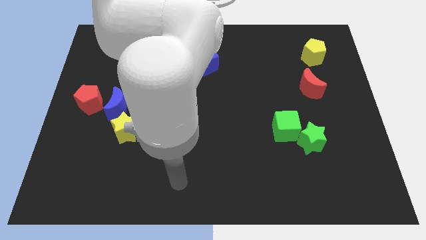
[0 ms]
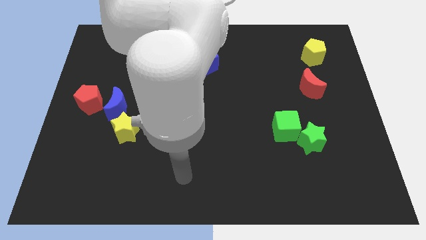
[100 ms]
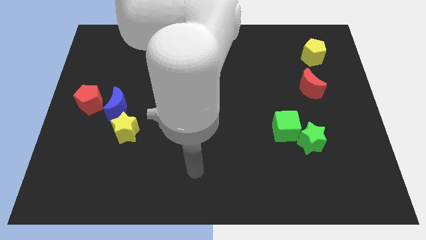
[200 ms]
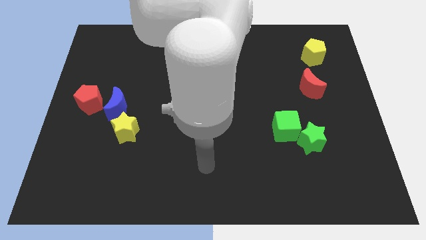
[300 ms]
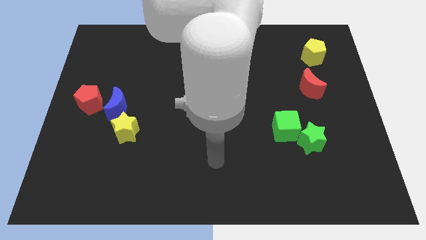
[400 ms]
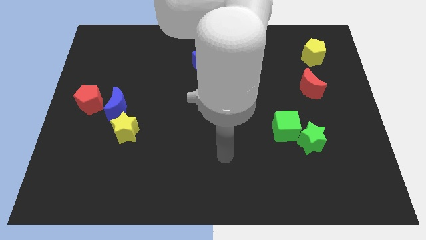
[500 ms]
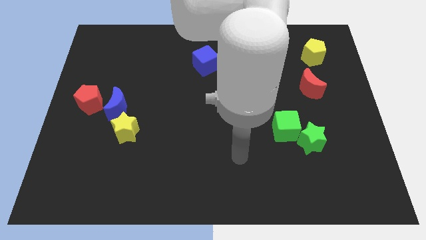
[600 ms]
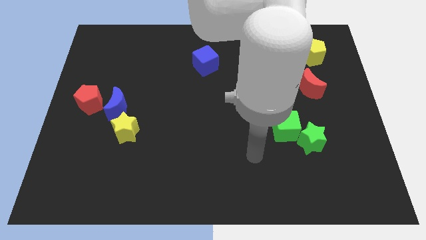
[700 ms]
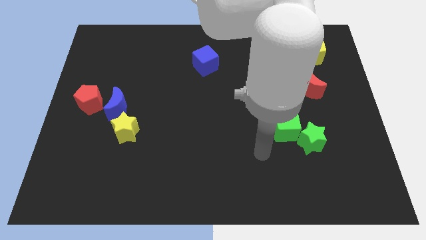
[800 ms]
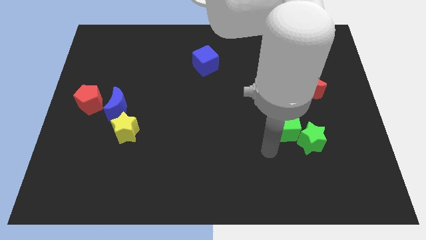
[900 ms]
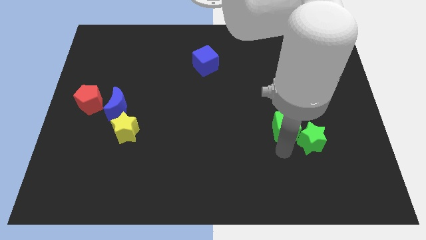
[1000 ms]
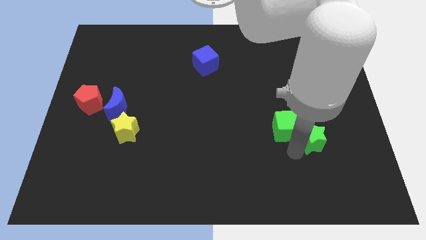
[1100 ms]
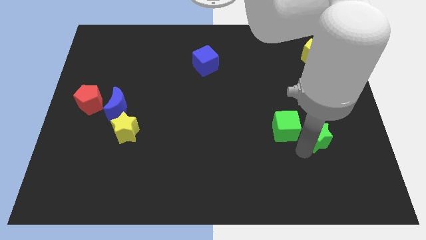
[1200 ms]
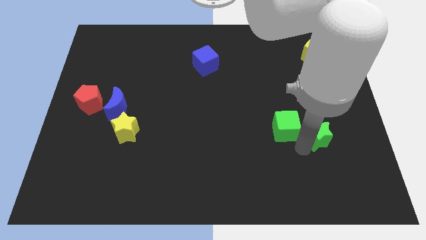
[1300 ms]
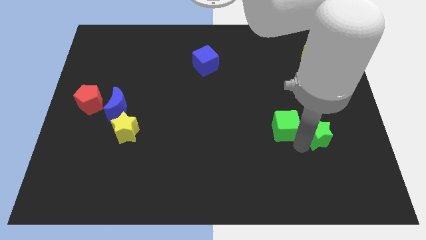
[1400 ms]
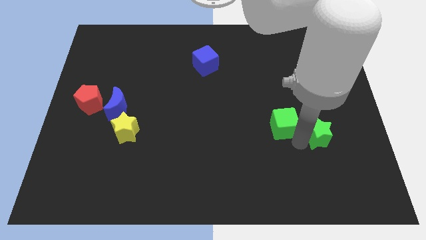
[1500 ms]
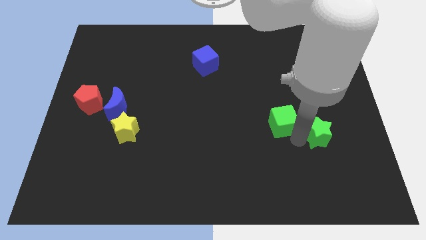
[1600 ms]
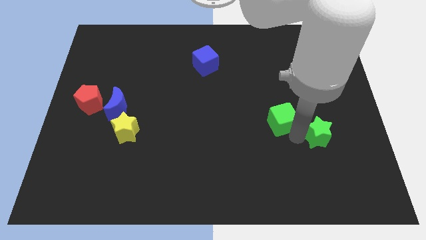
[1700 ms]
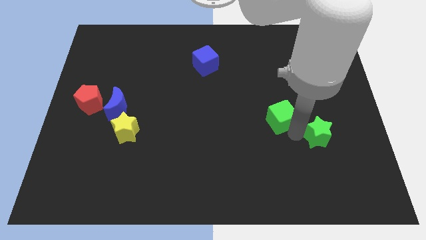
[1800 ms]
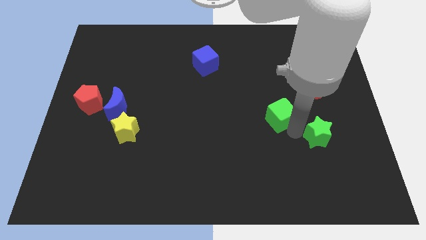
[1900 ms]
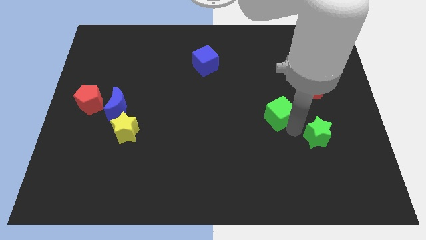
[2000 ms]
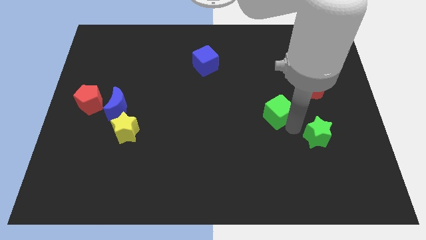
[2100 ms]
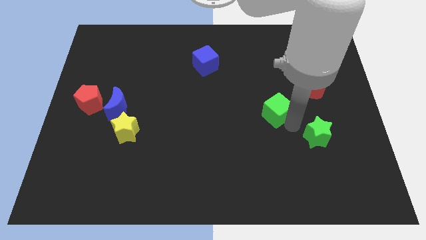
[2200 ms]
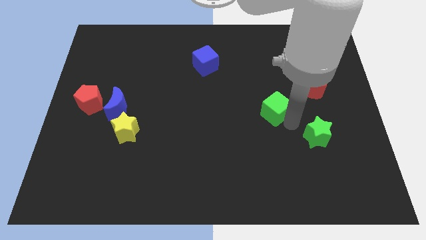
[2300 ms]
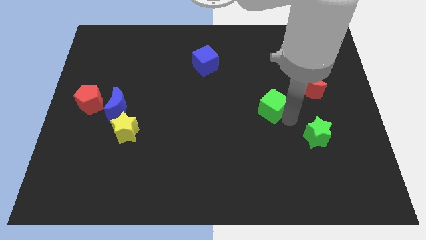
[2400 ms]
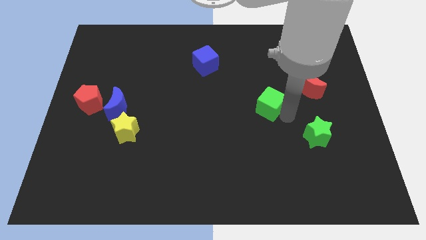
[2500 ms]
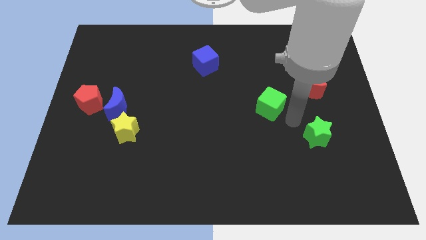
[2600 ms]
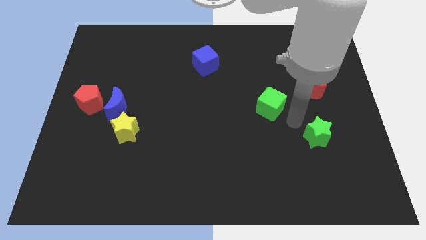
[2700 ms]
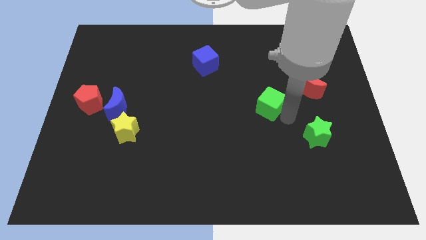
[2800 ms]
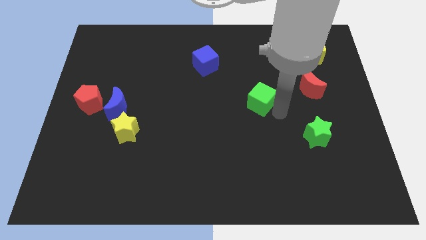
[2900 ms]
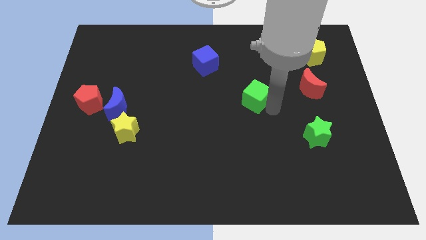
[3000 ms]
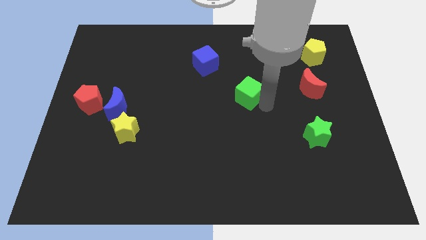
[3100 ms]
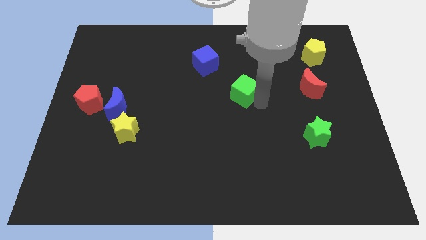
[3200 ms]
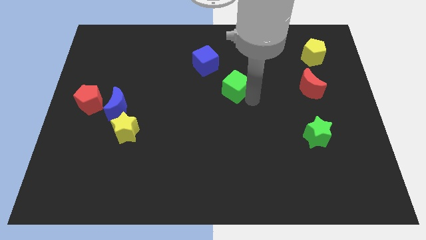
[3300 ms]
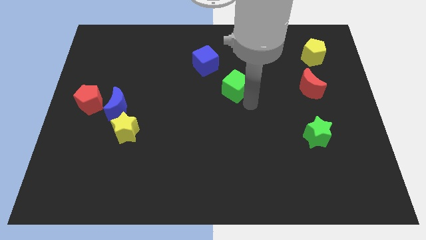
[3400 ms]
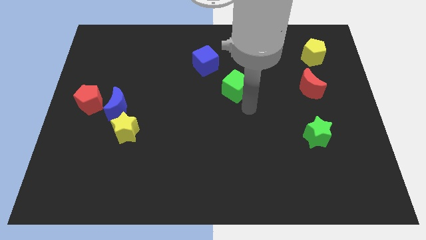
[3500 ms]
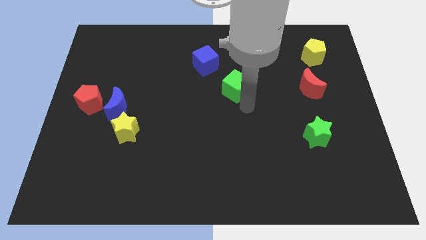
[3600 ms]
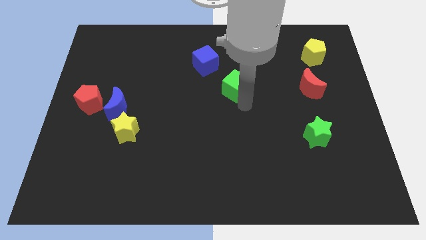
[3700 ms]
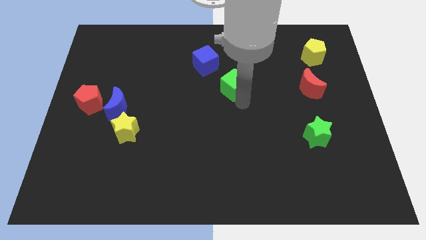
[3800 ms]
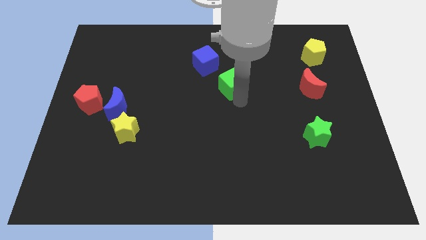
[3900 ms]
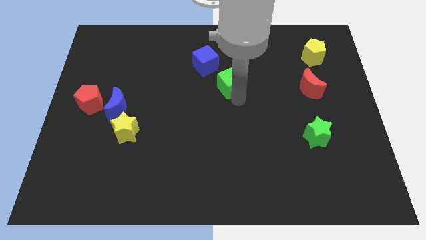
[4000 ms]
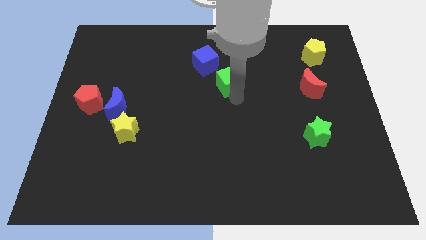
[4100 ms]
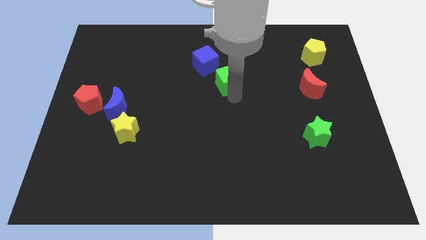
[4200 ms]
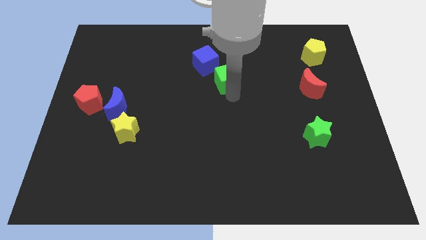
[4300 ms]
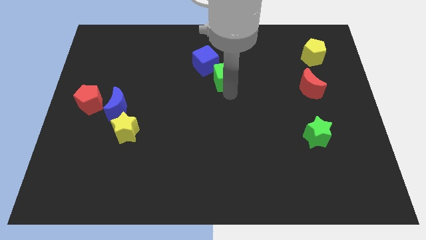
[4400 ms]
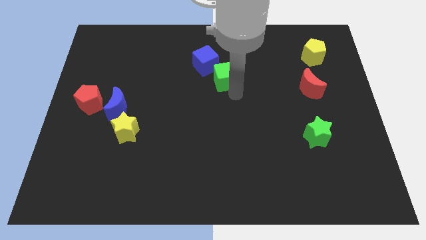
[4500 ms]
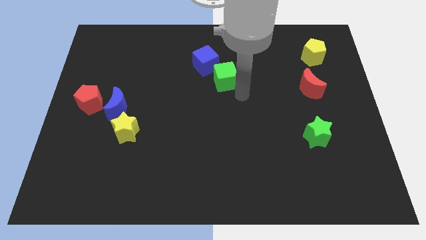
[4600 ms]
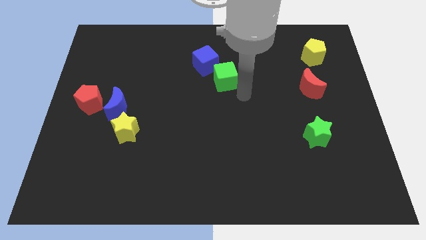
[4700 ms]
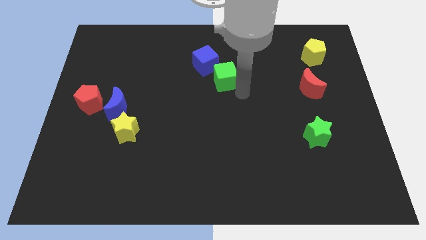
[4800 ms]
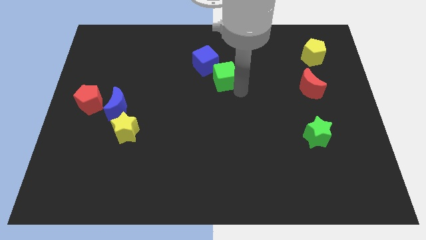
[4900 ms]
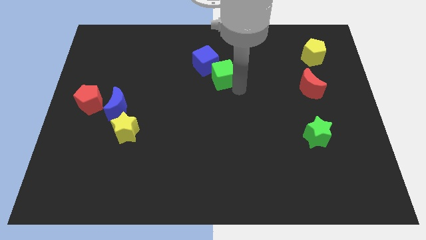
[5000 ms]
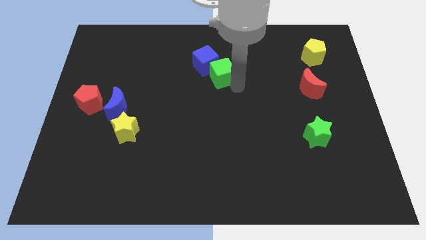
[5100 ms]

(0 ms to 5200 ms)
put the green cube close to the blue cube

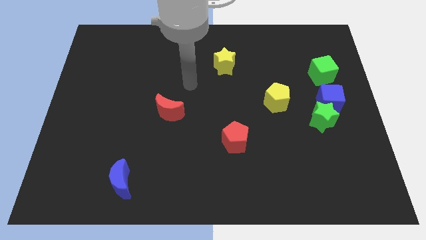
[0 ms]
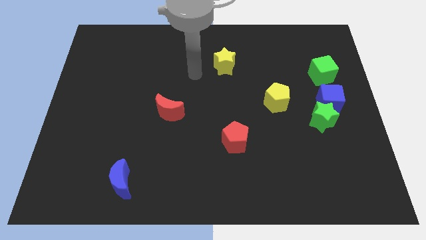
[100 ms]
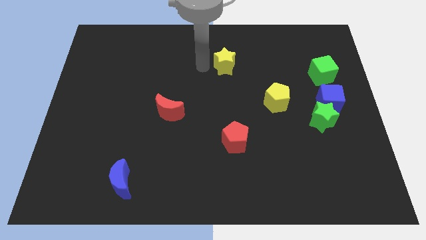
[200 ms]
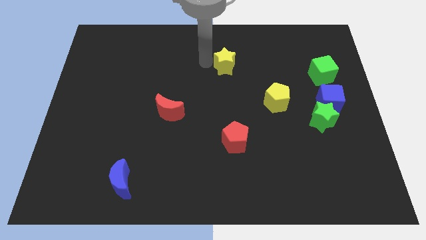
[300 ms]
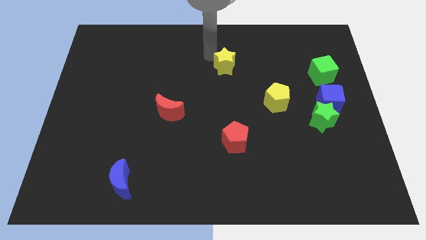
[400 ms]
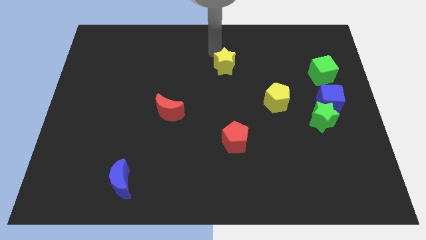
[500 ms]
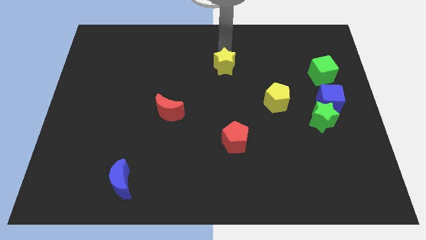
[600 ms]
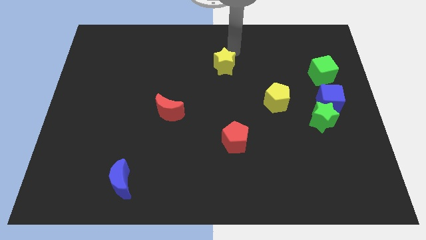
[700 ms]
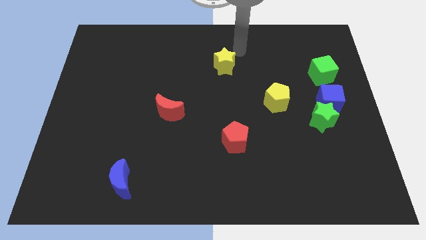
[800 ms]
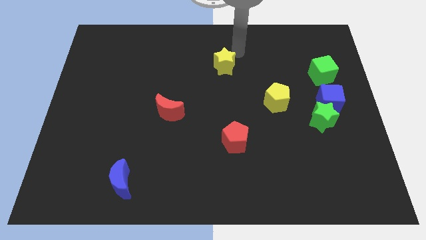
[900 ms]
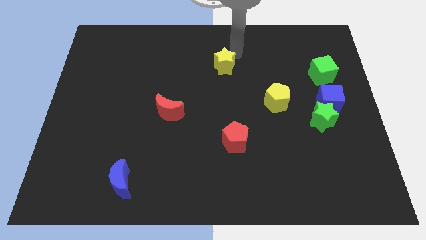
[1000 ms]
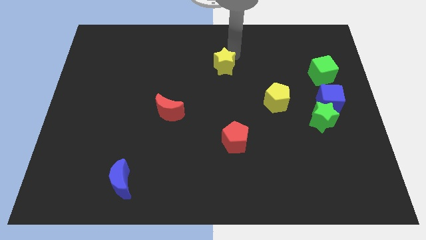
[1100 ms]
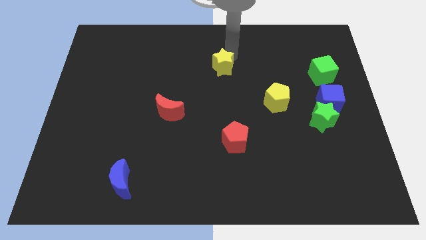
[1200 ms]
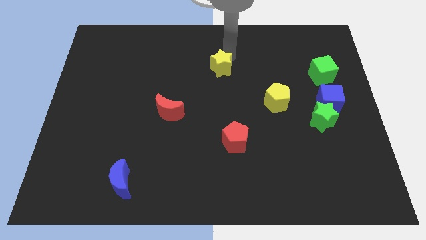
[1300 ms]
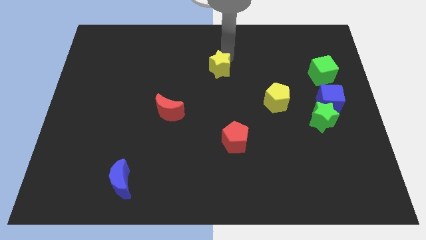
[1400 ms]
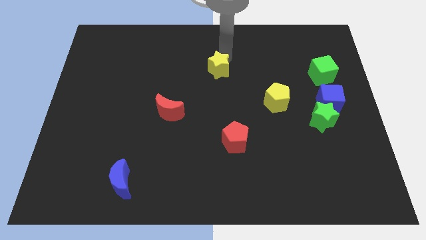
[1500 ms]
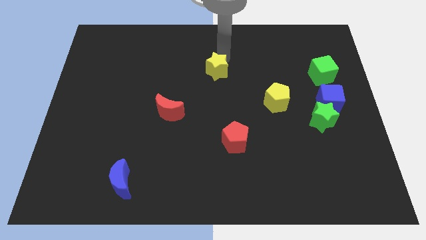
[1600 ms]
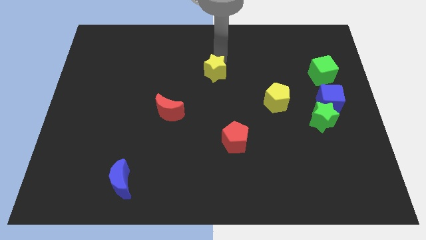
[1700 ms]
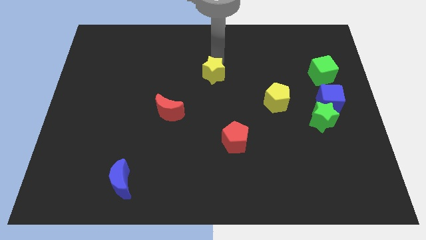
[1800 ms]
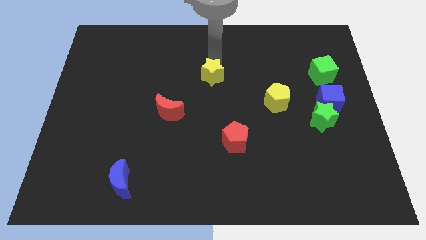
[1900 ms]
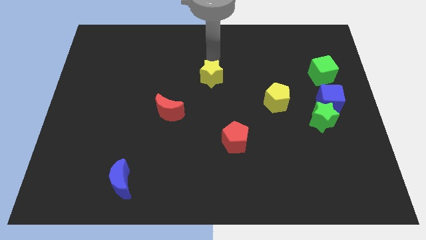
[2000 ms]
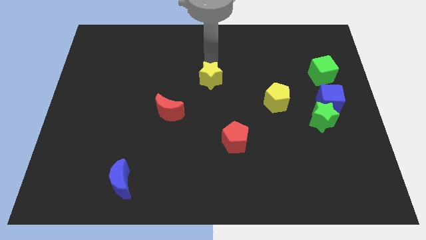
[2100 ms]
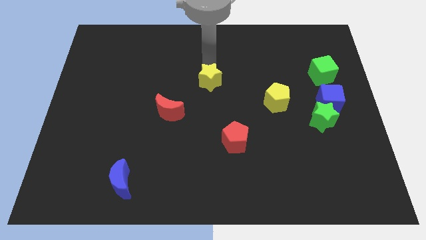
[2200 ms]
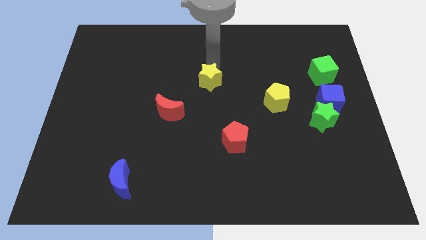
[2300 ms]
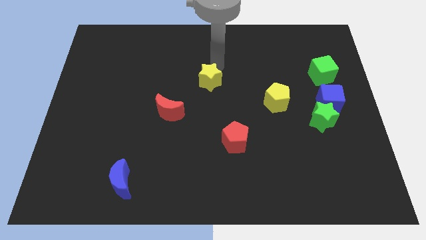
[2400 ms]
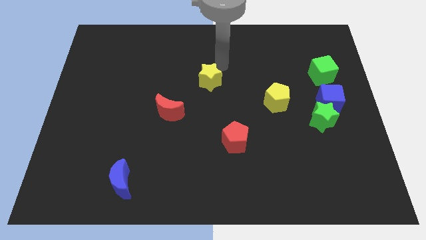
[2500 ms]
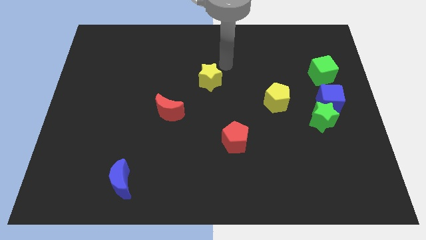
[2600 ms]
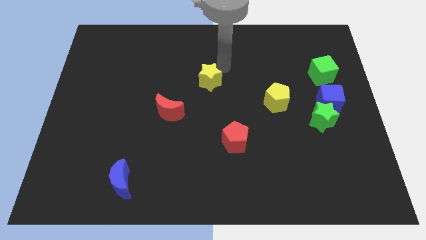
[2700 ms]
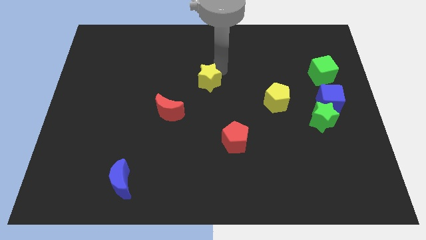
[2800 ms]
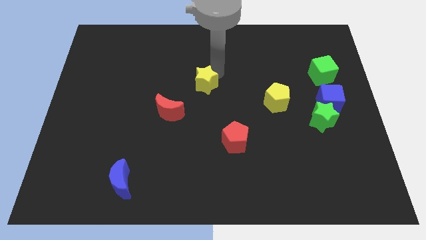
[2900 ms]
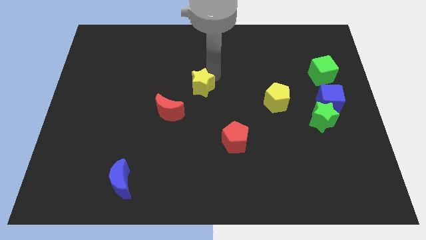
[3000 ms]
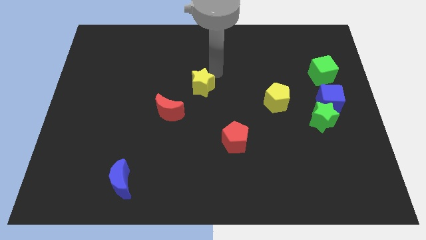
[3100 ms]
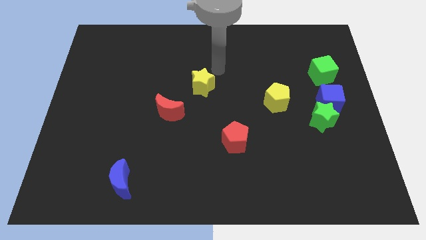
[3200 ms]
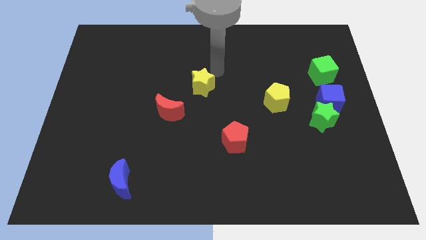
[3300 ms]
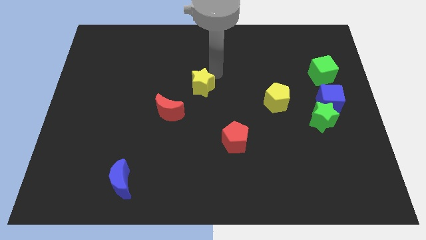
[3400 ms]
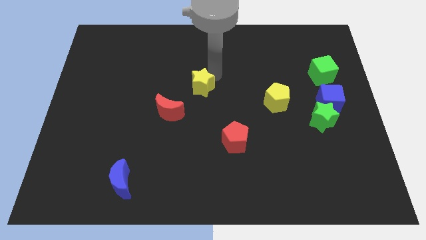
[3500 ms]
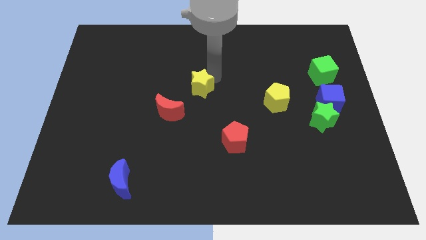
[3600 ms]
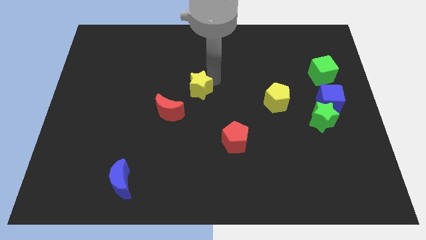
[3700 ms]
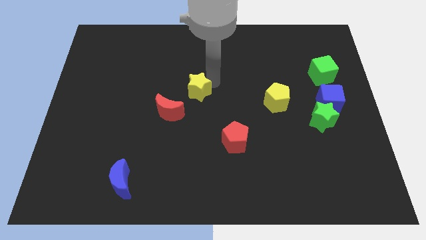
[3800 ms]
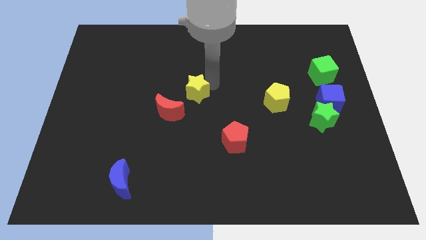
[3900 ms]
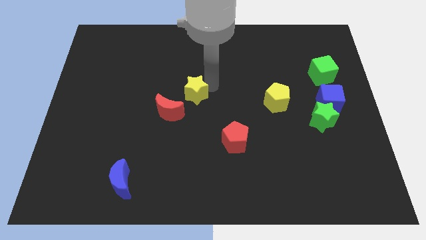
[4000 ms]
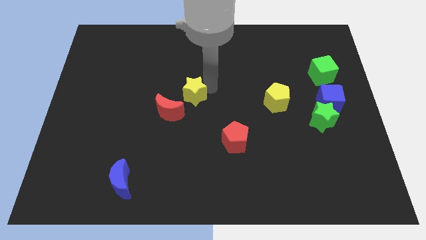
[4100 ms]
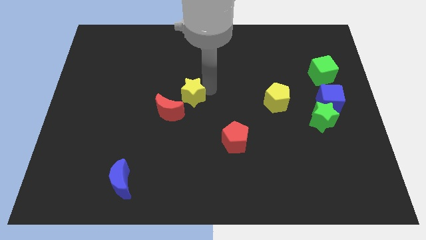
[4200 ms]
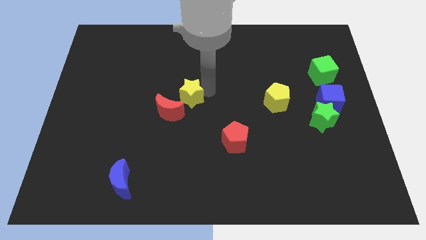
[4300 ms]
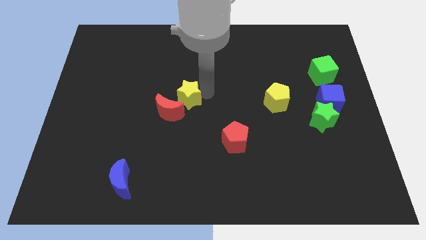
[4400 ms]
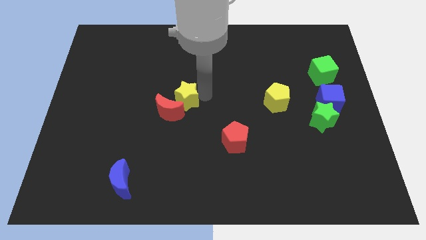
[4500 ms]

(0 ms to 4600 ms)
slide the yellow star to the red moon
